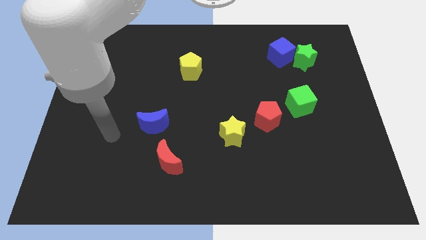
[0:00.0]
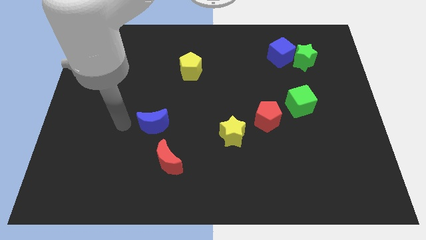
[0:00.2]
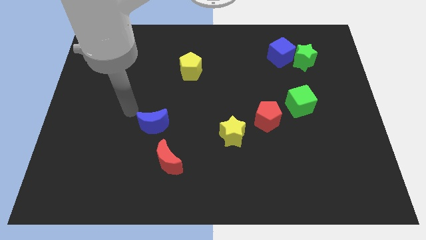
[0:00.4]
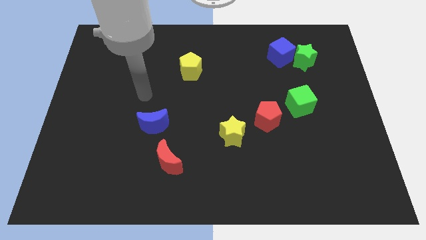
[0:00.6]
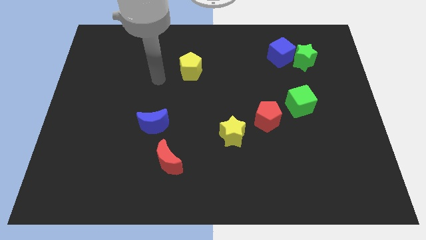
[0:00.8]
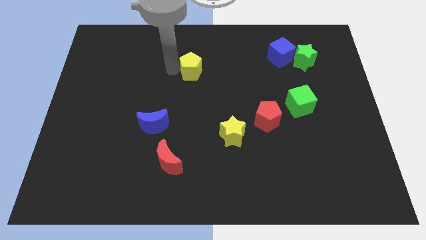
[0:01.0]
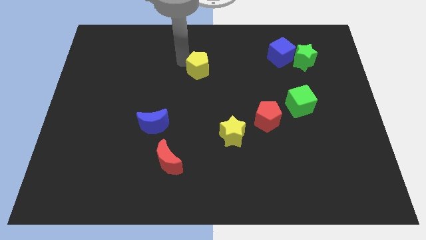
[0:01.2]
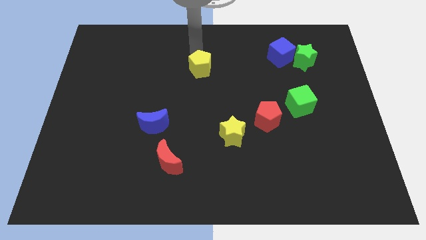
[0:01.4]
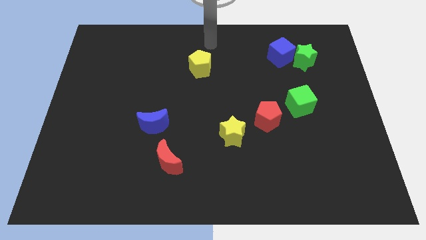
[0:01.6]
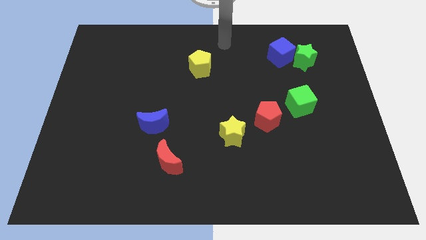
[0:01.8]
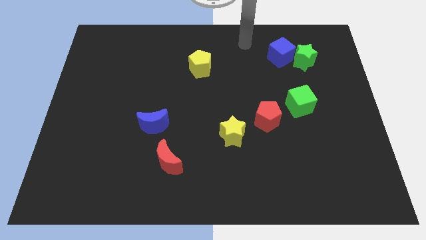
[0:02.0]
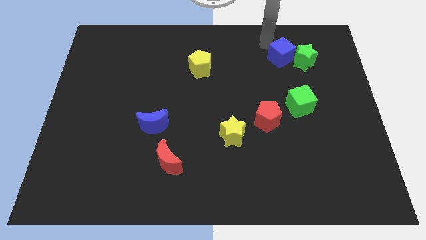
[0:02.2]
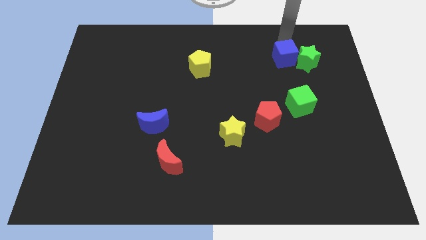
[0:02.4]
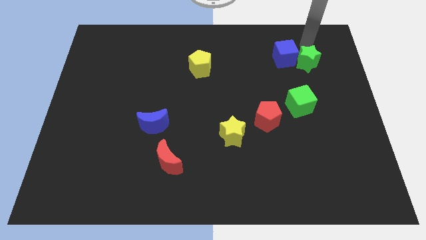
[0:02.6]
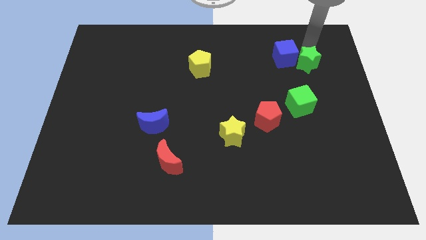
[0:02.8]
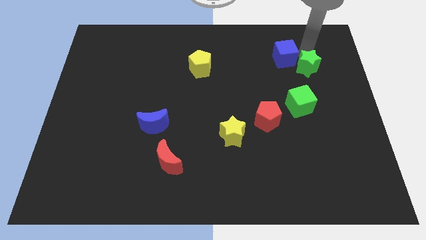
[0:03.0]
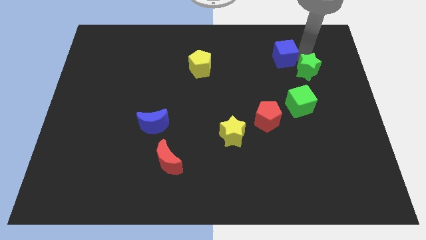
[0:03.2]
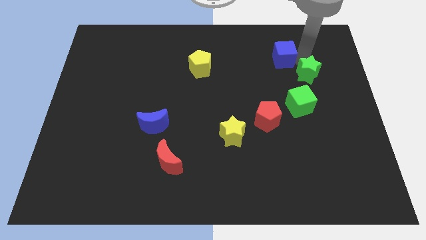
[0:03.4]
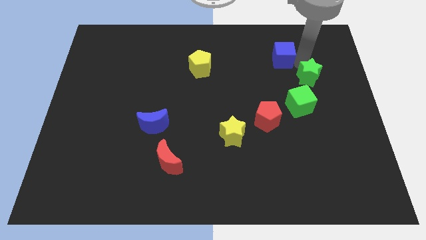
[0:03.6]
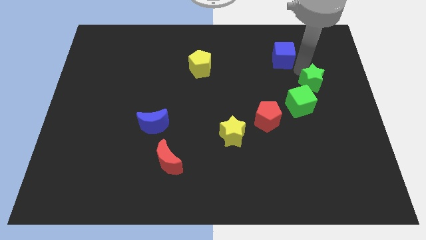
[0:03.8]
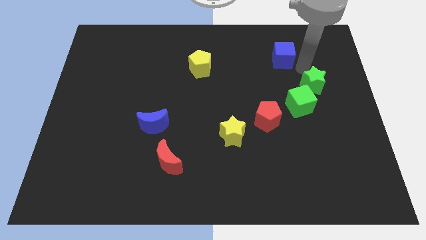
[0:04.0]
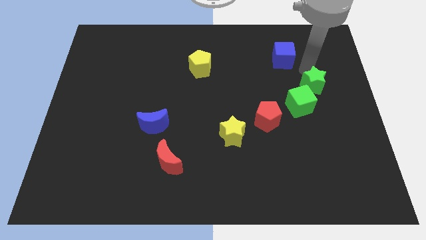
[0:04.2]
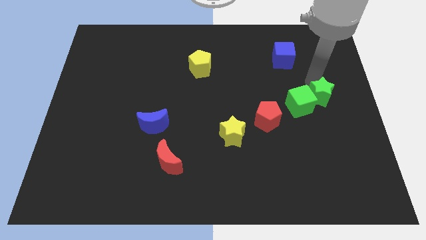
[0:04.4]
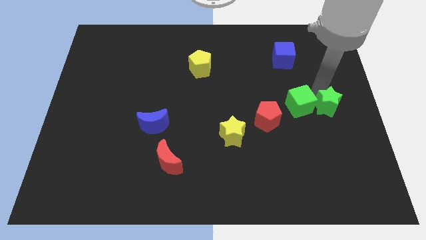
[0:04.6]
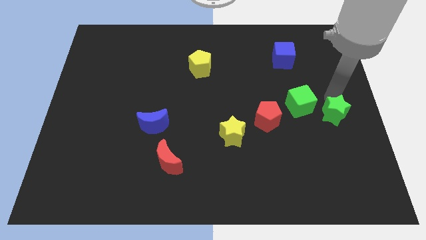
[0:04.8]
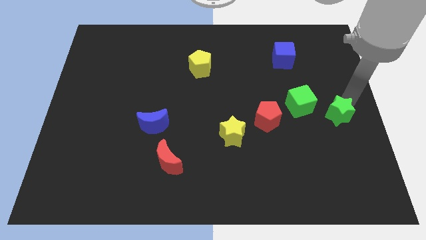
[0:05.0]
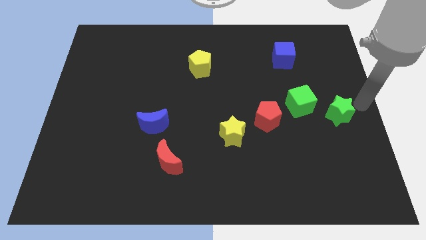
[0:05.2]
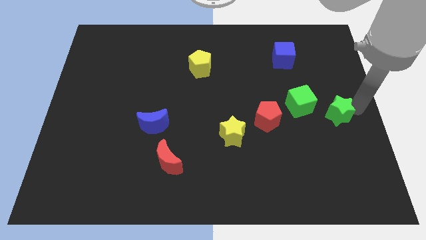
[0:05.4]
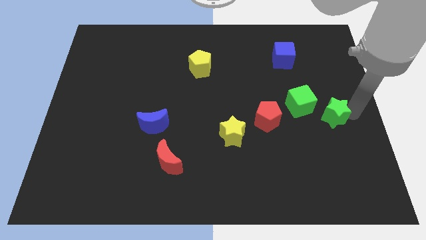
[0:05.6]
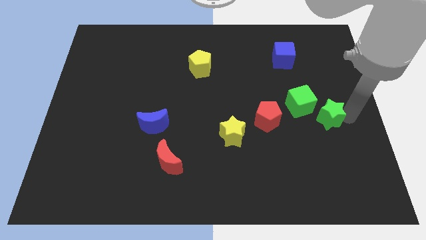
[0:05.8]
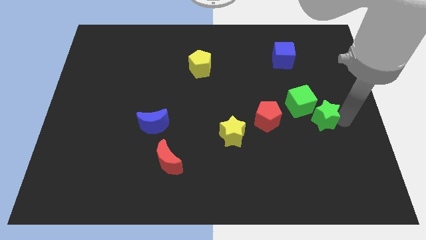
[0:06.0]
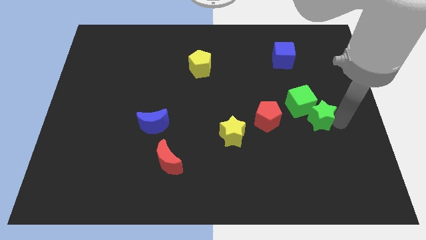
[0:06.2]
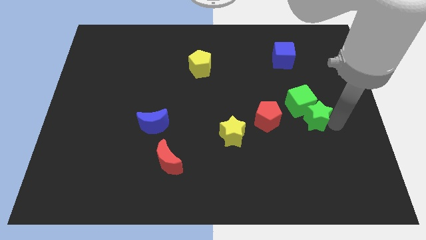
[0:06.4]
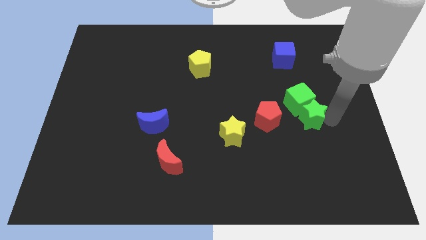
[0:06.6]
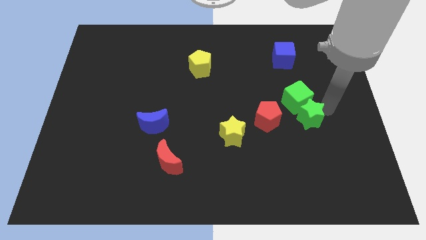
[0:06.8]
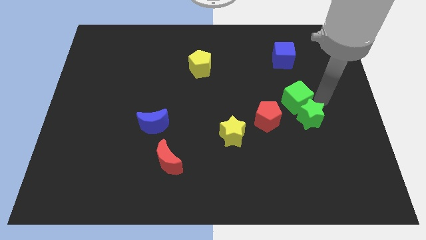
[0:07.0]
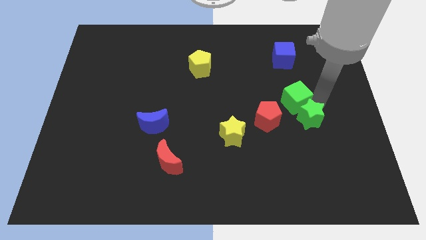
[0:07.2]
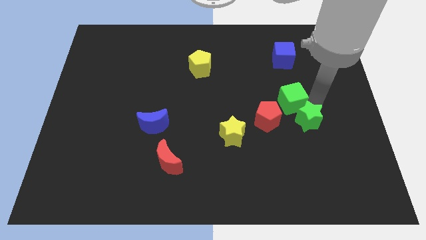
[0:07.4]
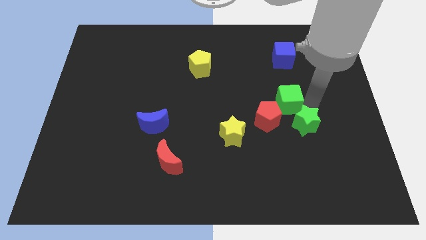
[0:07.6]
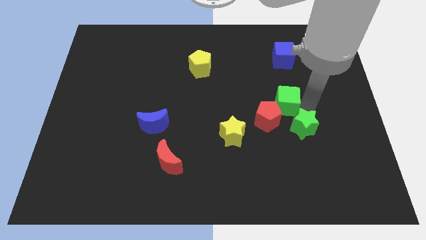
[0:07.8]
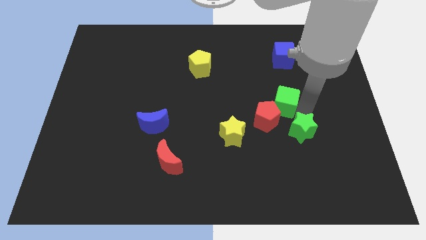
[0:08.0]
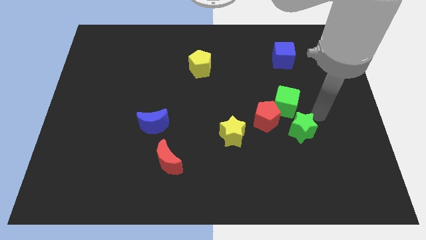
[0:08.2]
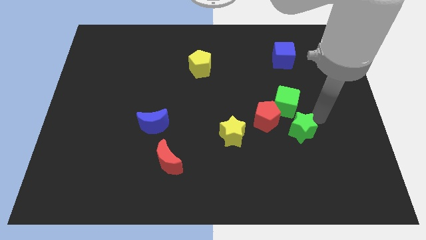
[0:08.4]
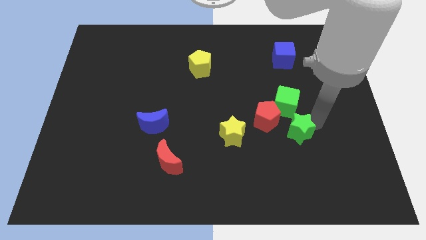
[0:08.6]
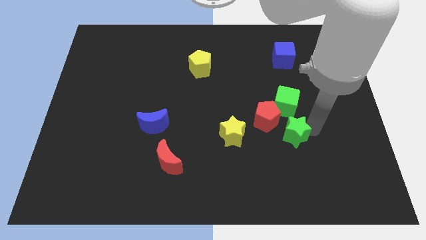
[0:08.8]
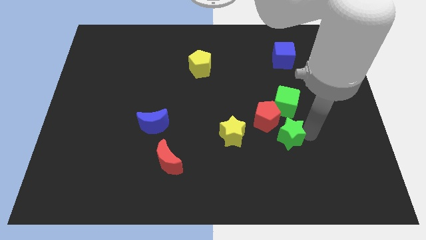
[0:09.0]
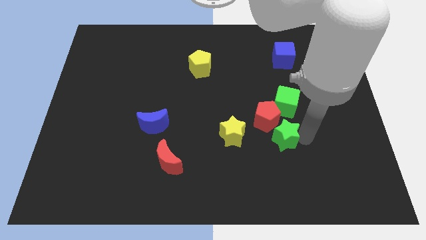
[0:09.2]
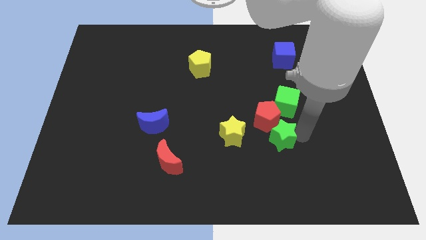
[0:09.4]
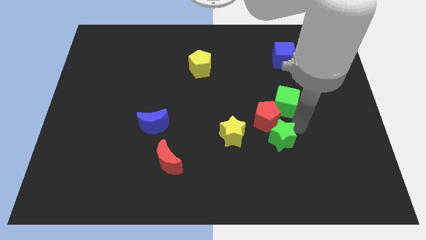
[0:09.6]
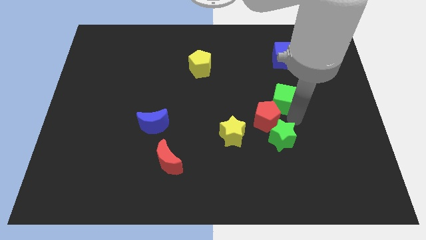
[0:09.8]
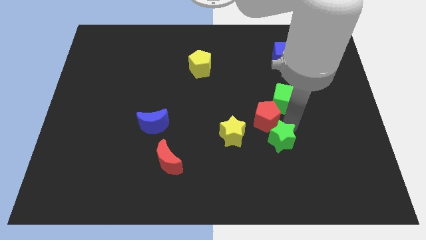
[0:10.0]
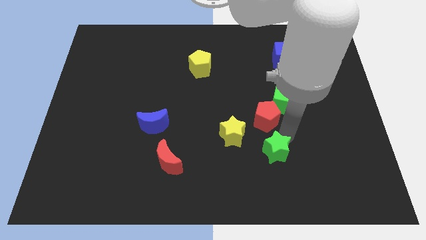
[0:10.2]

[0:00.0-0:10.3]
push the green star diagonally down and to the right of the yellow star

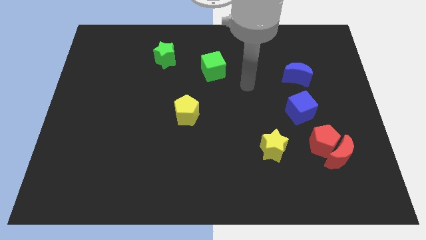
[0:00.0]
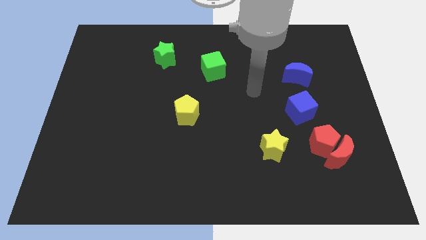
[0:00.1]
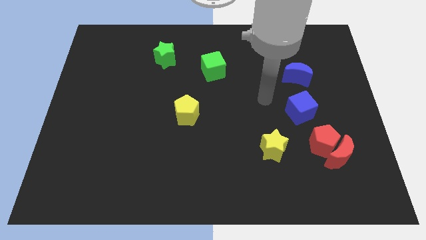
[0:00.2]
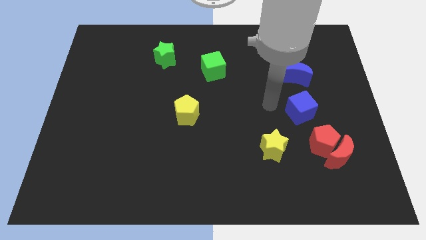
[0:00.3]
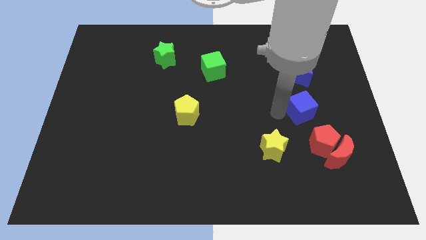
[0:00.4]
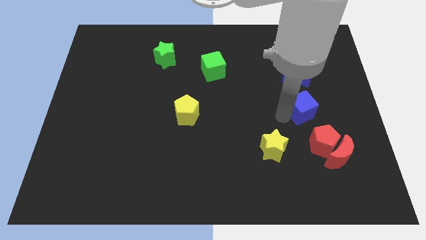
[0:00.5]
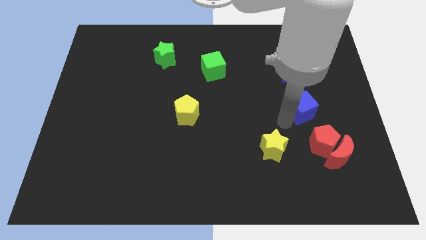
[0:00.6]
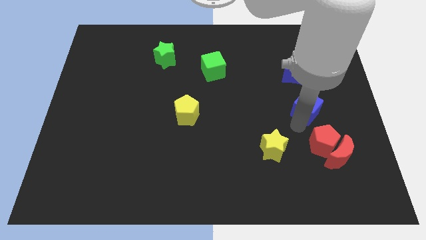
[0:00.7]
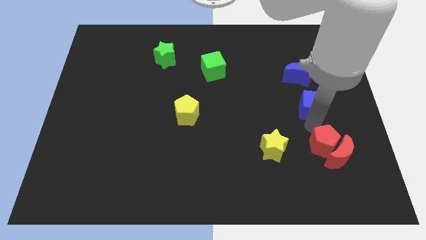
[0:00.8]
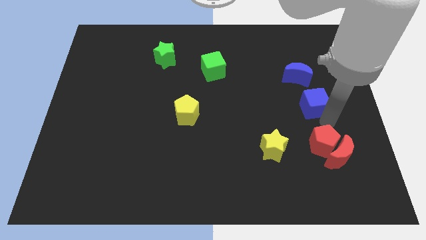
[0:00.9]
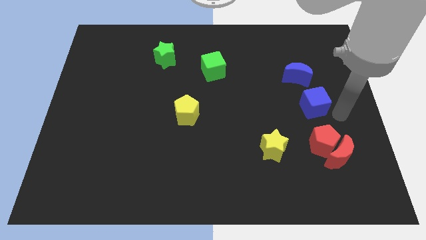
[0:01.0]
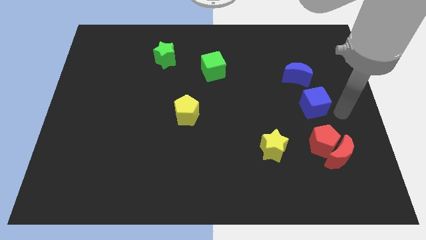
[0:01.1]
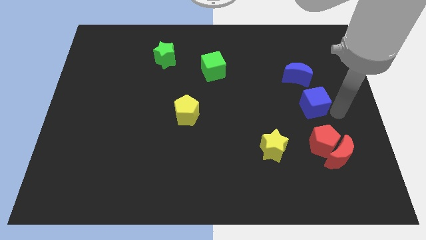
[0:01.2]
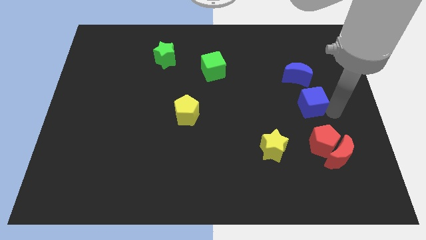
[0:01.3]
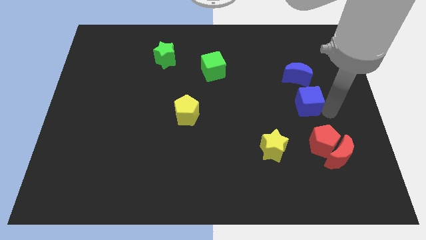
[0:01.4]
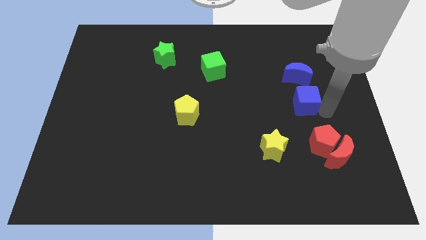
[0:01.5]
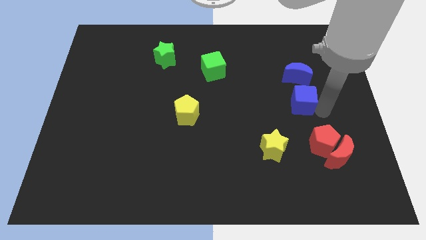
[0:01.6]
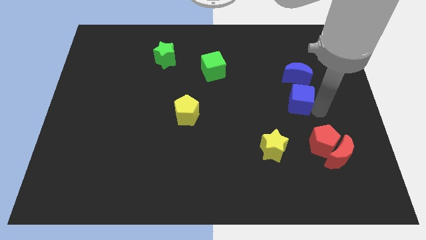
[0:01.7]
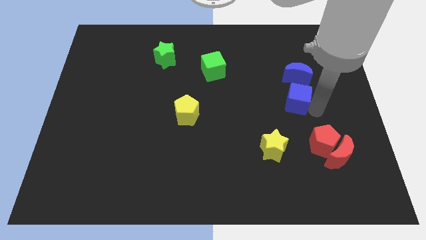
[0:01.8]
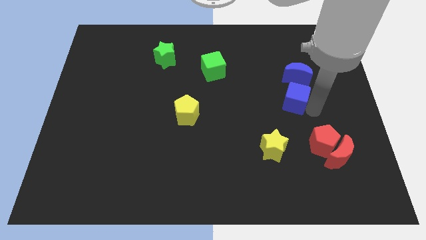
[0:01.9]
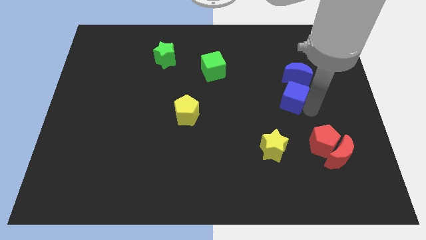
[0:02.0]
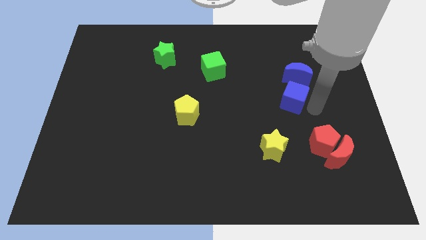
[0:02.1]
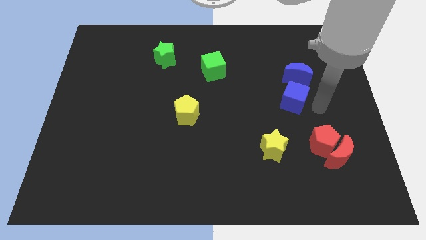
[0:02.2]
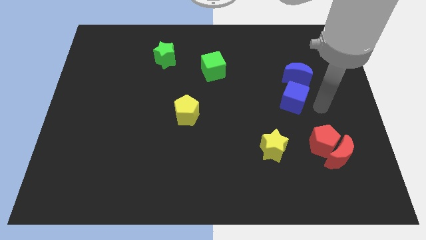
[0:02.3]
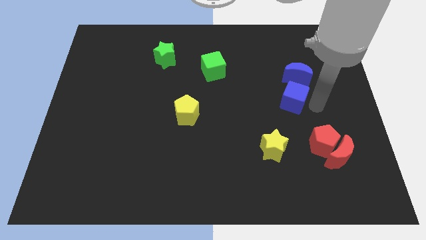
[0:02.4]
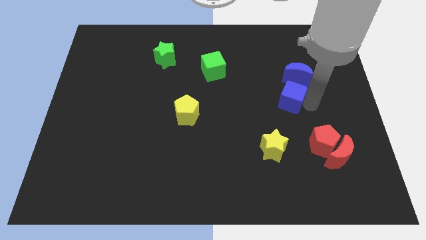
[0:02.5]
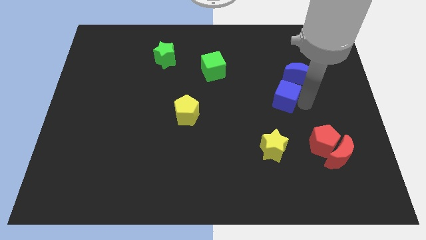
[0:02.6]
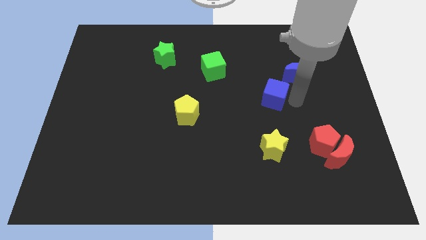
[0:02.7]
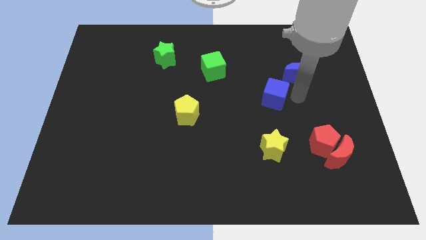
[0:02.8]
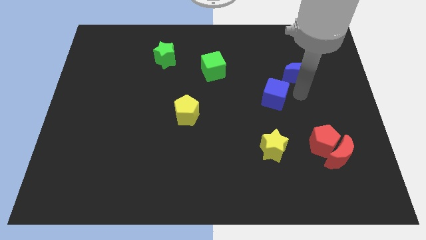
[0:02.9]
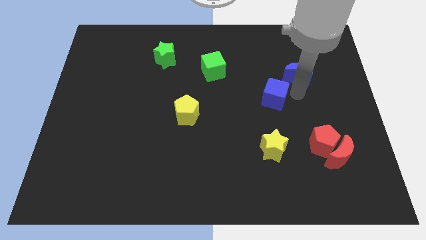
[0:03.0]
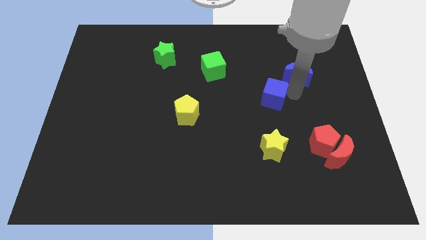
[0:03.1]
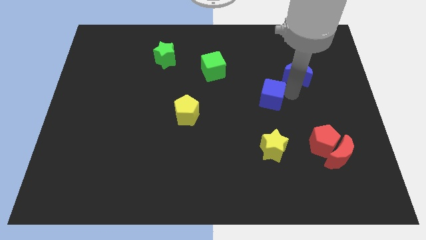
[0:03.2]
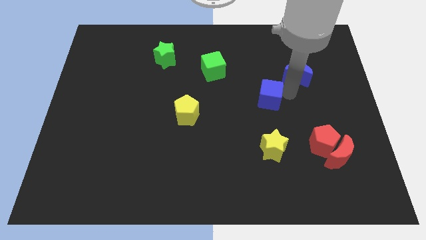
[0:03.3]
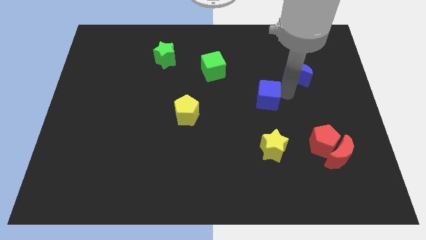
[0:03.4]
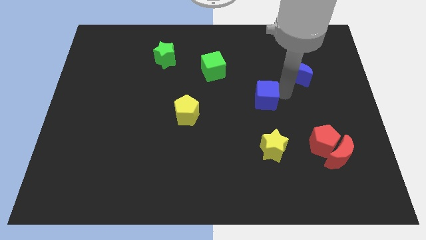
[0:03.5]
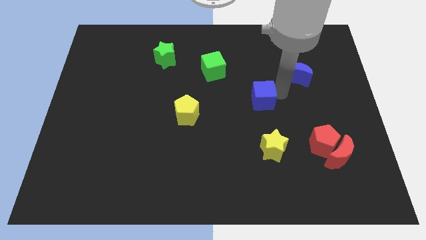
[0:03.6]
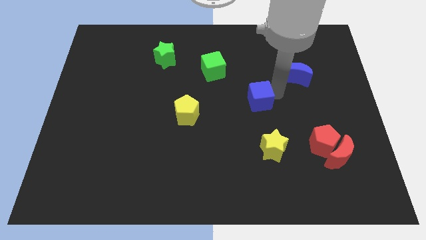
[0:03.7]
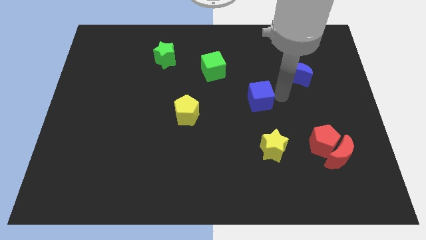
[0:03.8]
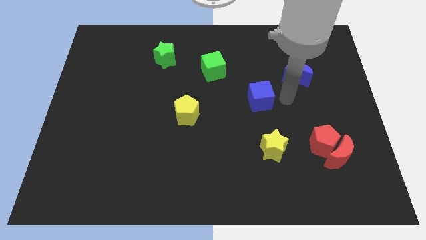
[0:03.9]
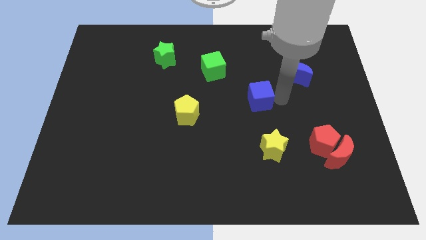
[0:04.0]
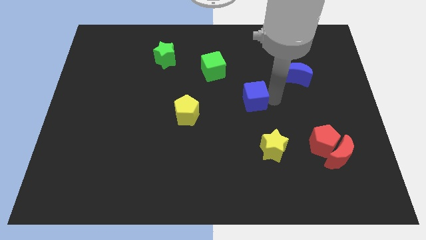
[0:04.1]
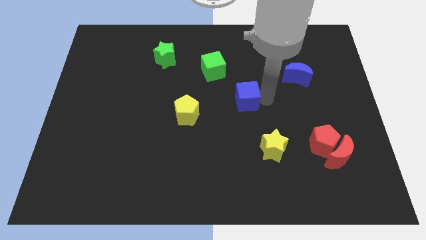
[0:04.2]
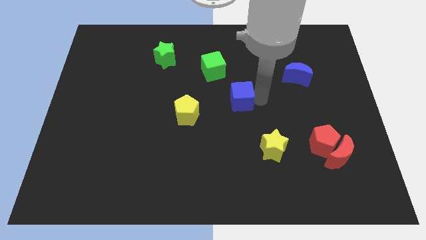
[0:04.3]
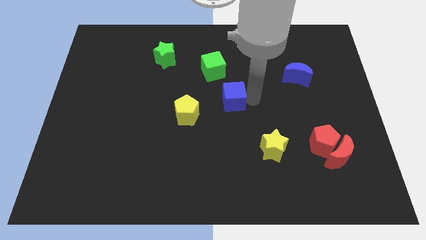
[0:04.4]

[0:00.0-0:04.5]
push the blue cube to the bottom side of the green cube
